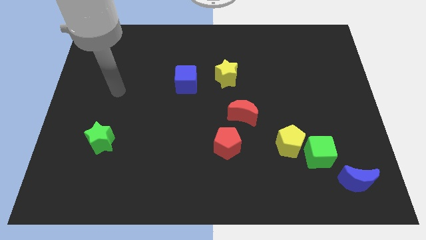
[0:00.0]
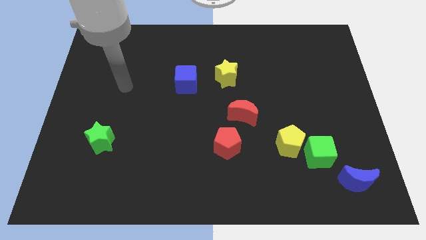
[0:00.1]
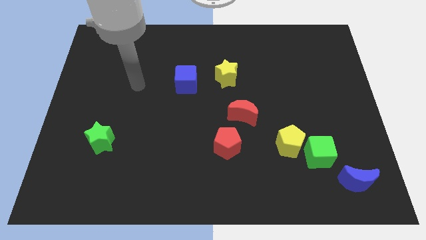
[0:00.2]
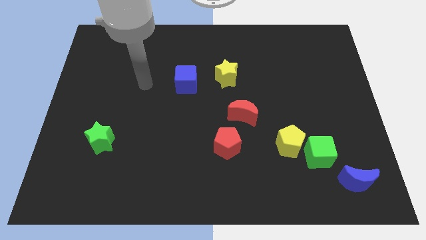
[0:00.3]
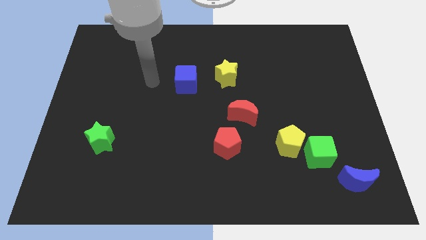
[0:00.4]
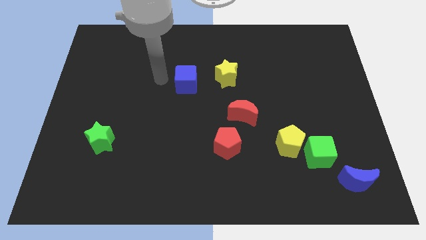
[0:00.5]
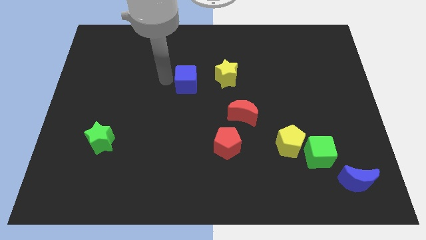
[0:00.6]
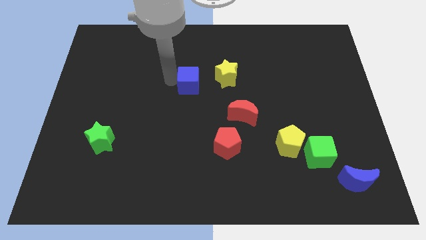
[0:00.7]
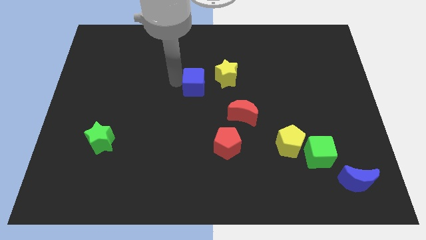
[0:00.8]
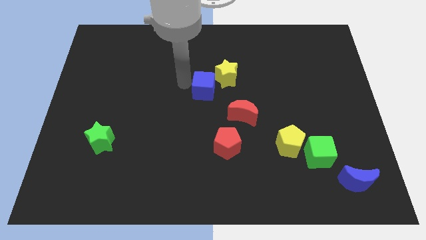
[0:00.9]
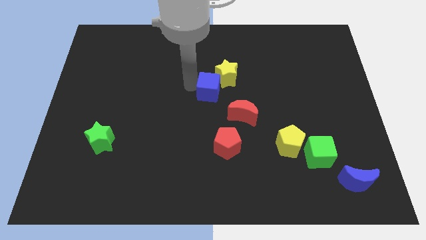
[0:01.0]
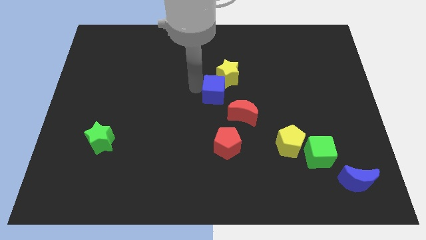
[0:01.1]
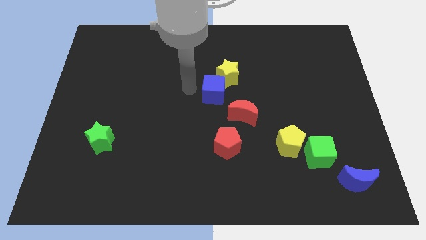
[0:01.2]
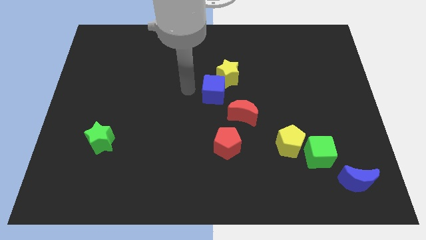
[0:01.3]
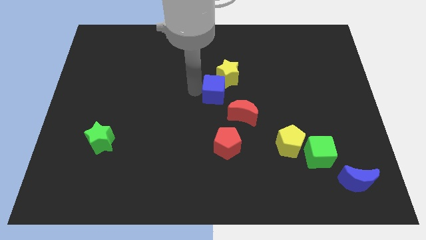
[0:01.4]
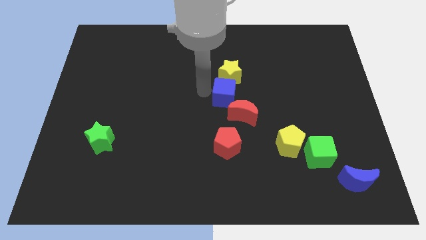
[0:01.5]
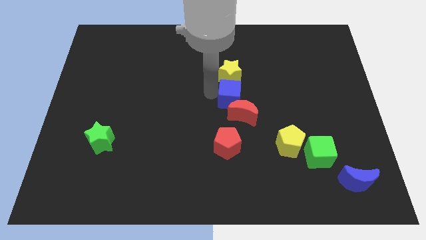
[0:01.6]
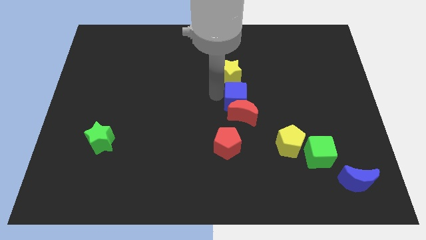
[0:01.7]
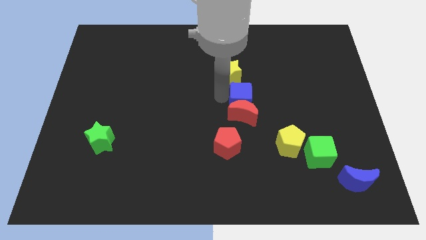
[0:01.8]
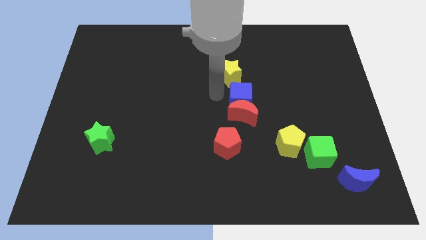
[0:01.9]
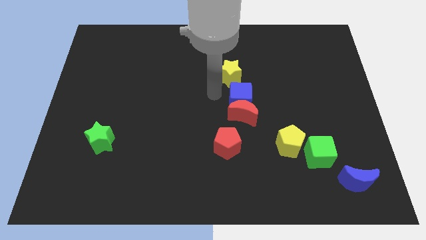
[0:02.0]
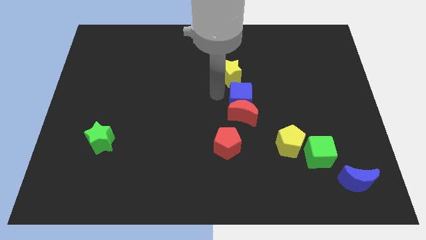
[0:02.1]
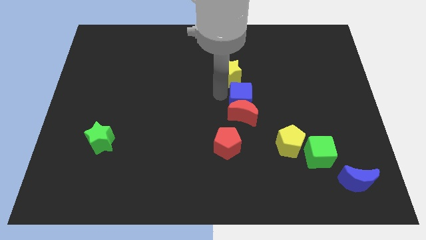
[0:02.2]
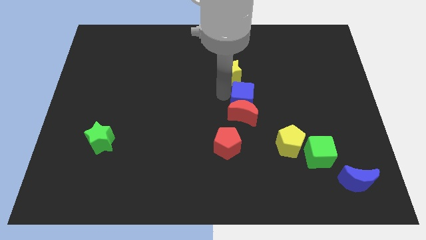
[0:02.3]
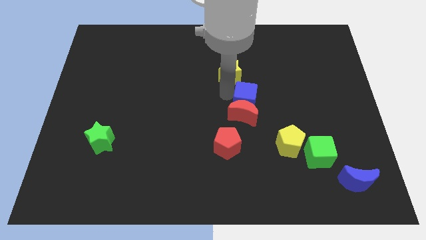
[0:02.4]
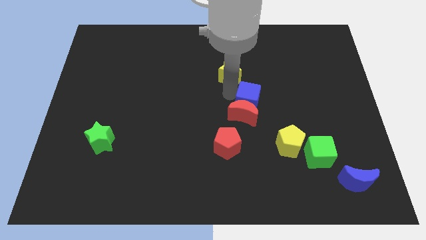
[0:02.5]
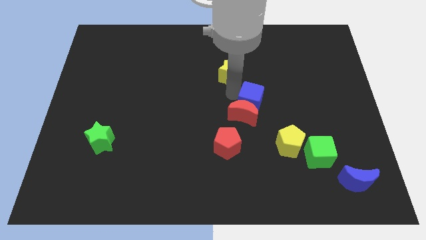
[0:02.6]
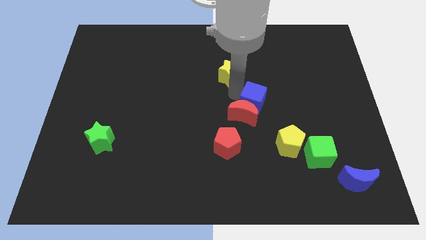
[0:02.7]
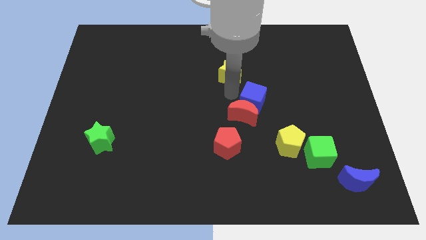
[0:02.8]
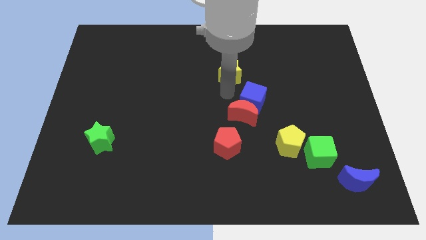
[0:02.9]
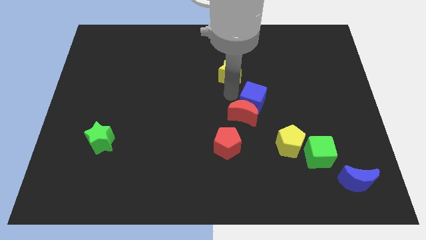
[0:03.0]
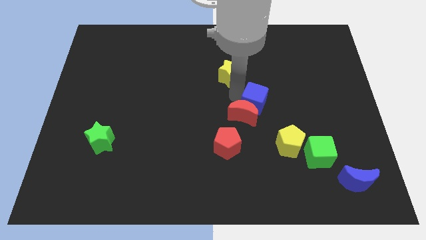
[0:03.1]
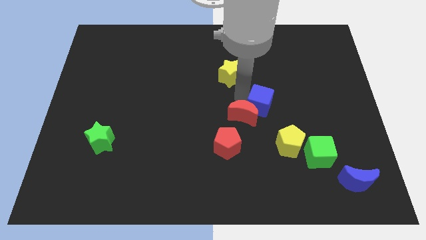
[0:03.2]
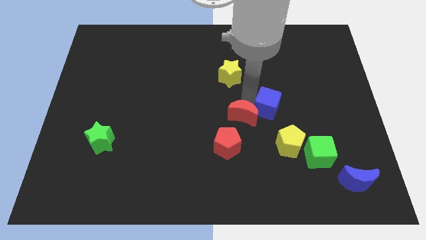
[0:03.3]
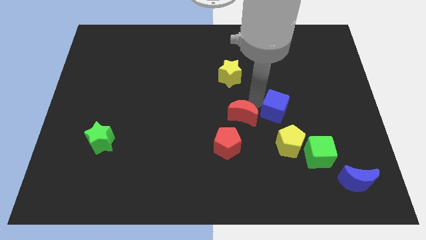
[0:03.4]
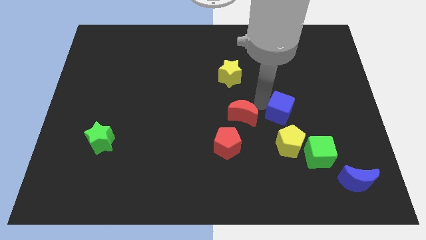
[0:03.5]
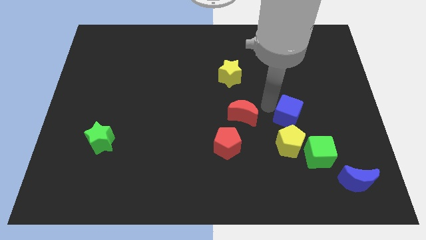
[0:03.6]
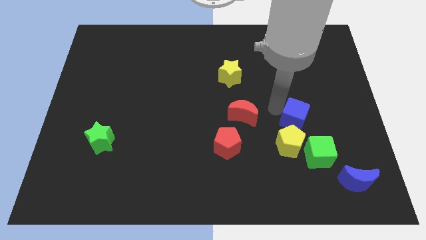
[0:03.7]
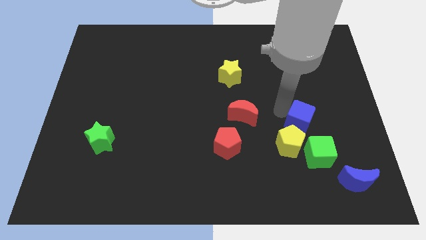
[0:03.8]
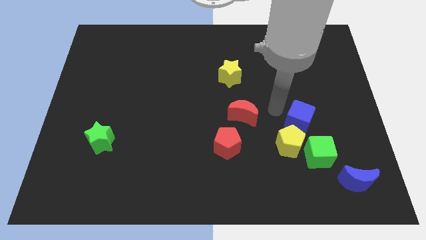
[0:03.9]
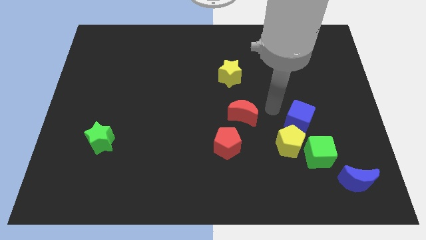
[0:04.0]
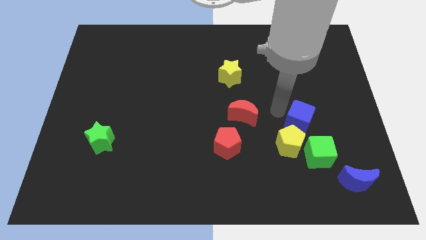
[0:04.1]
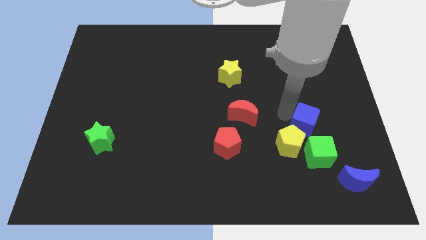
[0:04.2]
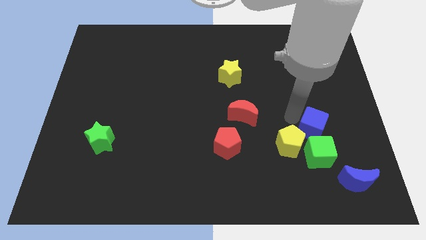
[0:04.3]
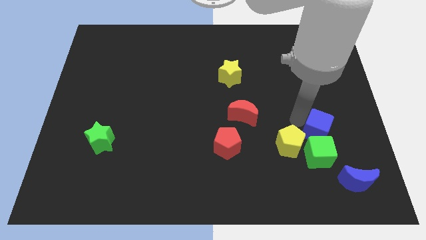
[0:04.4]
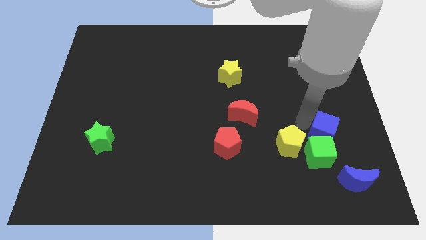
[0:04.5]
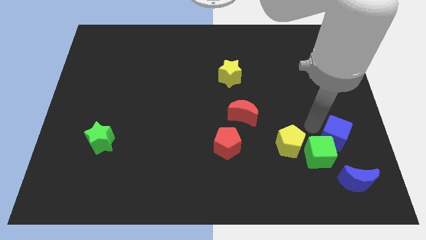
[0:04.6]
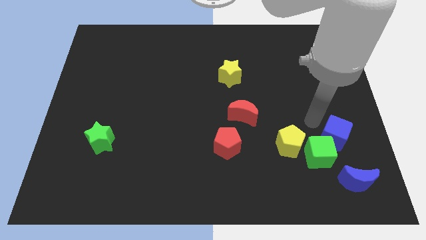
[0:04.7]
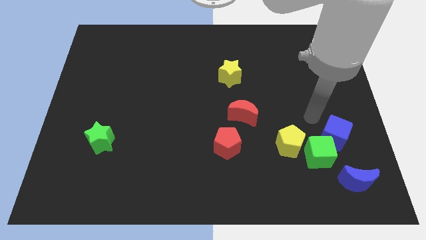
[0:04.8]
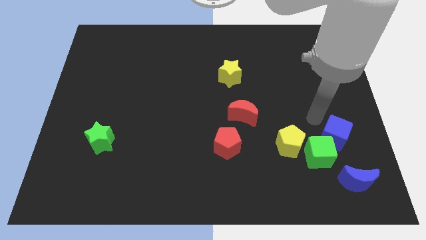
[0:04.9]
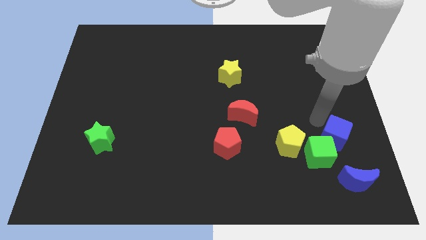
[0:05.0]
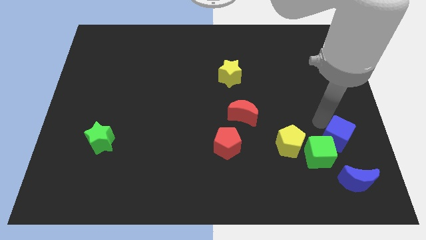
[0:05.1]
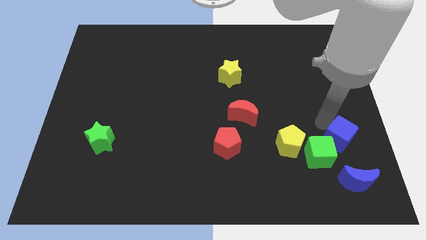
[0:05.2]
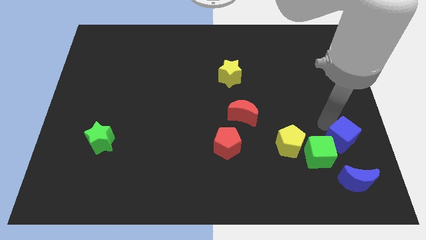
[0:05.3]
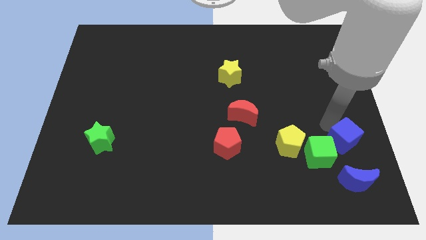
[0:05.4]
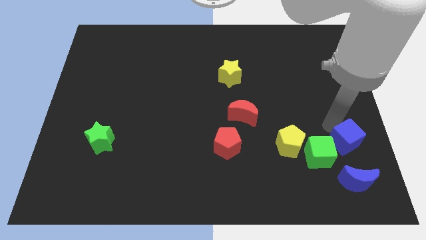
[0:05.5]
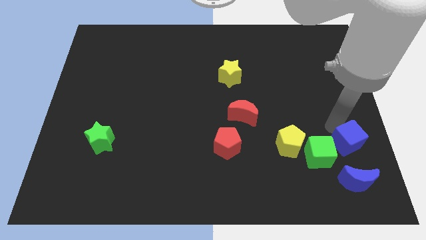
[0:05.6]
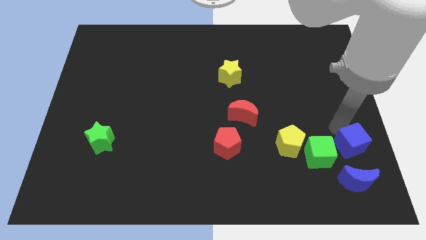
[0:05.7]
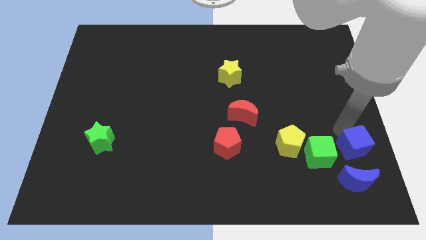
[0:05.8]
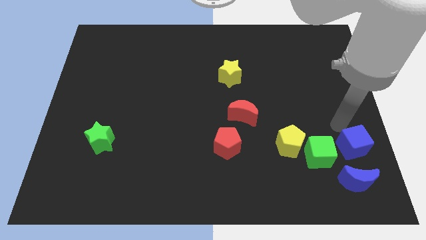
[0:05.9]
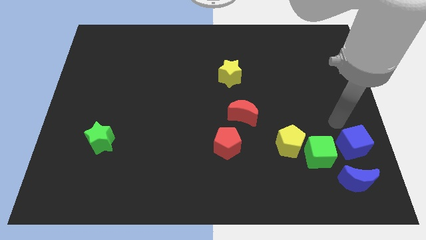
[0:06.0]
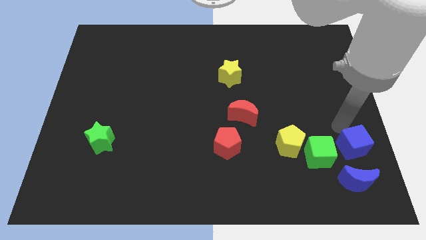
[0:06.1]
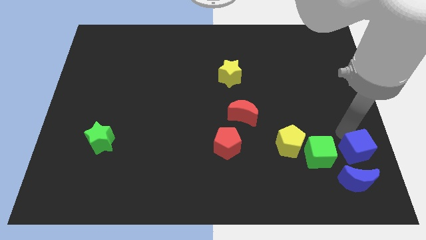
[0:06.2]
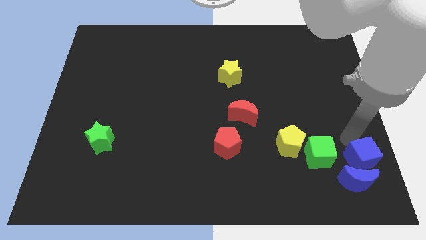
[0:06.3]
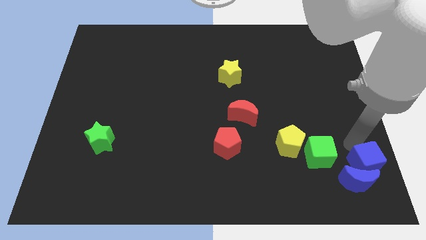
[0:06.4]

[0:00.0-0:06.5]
slide the blue cube to the lower right corner

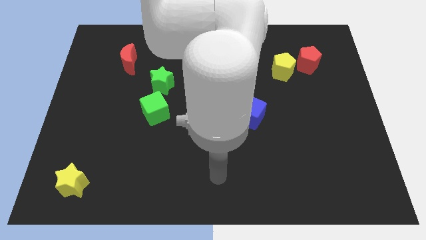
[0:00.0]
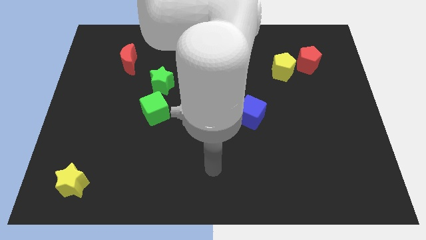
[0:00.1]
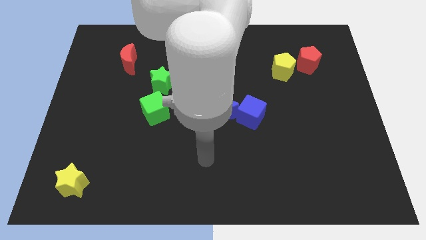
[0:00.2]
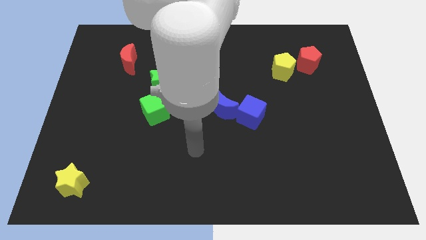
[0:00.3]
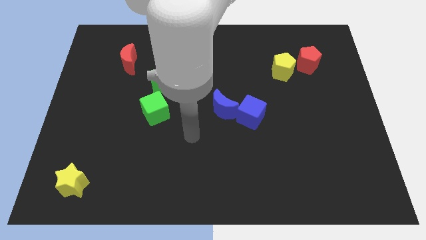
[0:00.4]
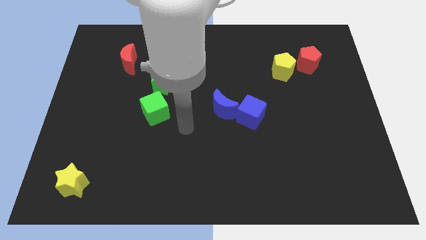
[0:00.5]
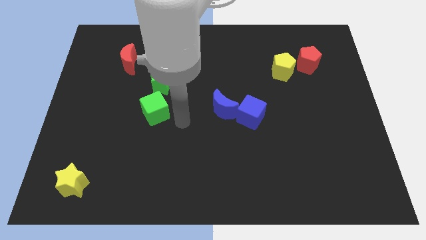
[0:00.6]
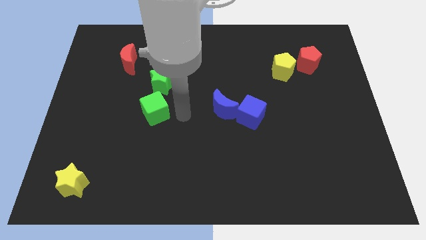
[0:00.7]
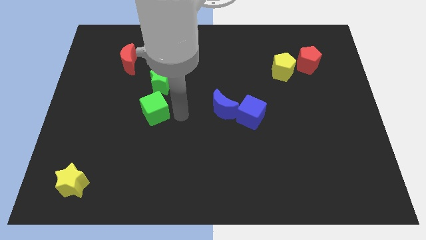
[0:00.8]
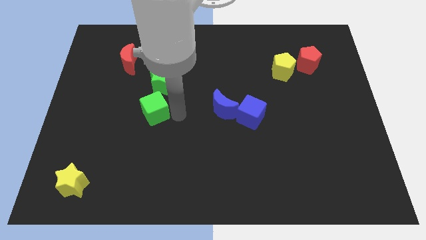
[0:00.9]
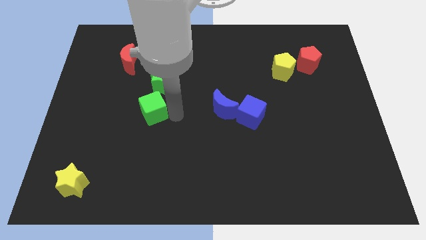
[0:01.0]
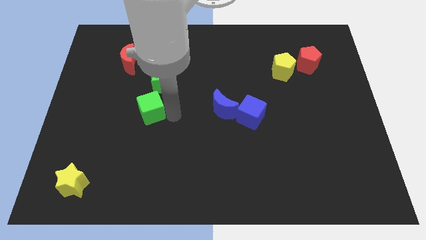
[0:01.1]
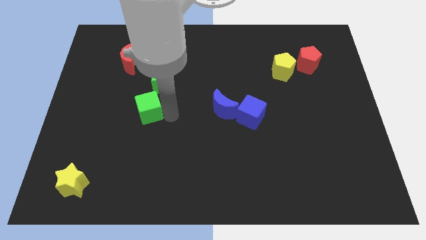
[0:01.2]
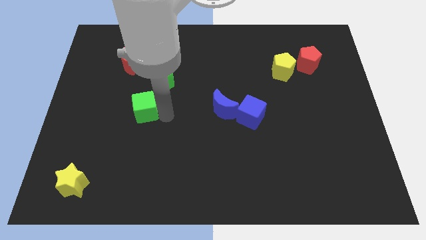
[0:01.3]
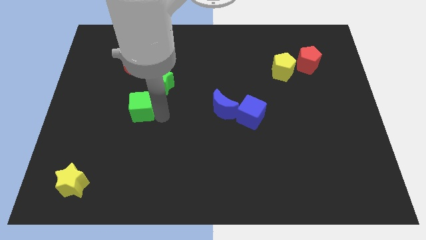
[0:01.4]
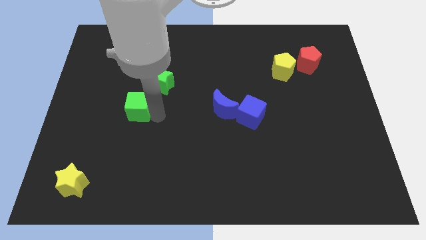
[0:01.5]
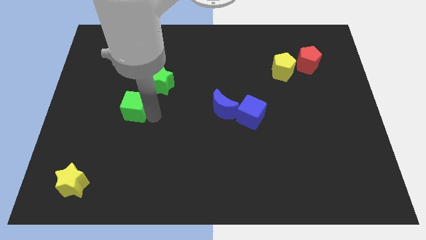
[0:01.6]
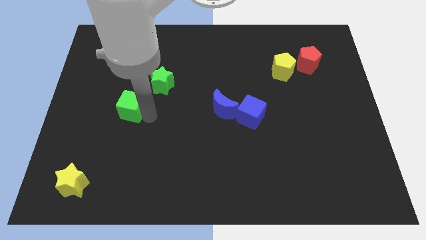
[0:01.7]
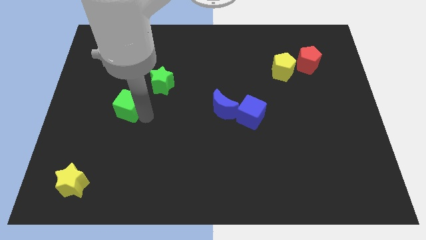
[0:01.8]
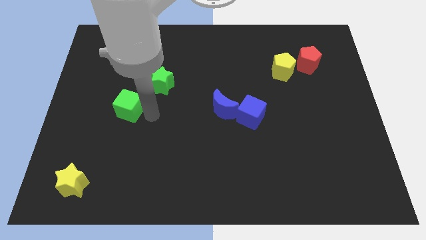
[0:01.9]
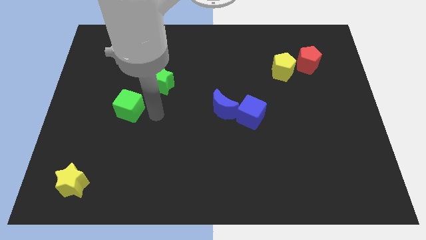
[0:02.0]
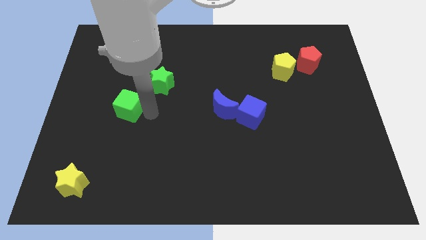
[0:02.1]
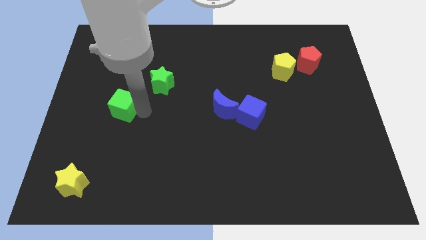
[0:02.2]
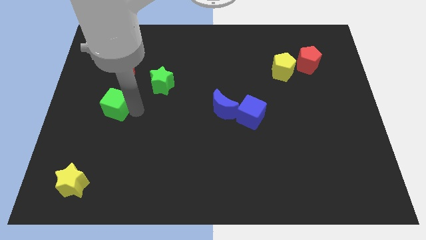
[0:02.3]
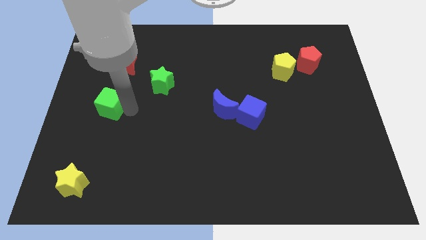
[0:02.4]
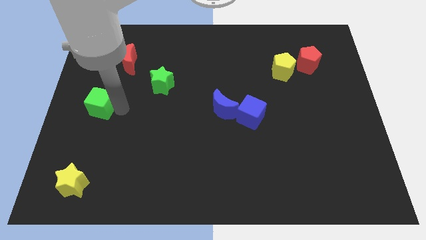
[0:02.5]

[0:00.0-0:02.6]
put the green cube to the left side of the board
